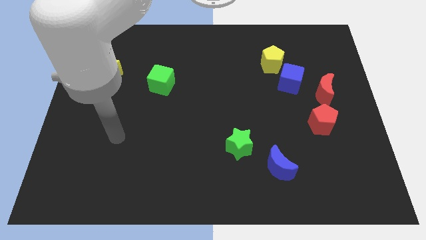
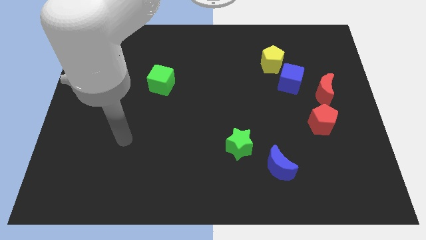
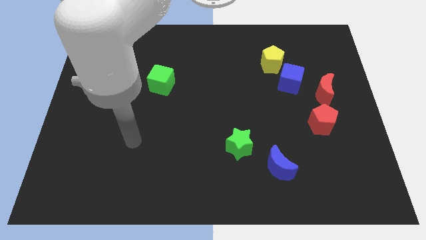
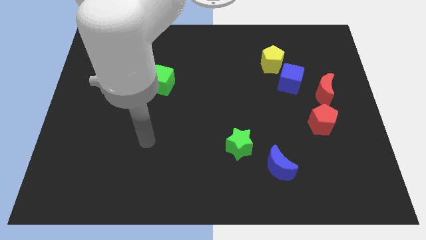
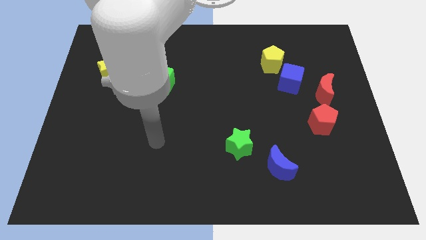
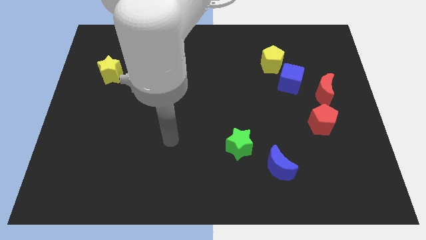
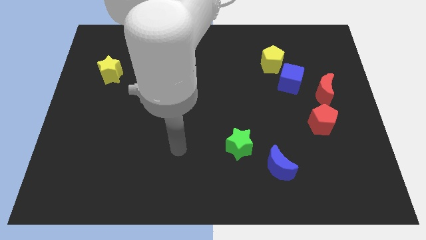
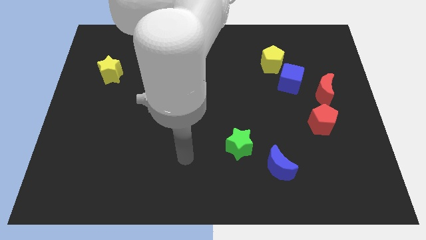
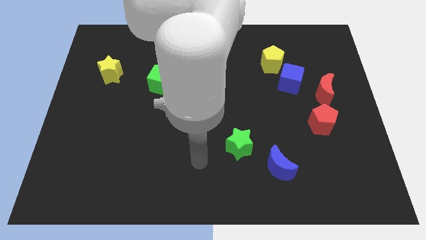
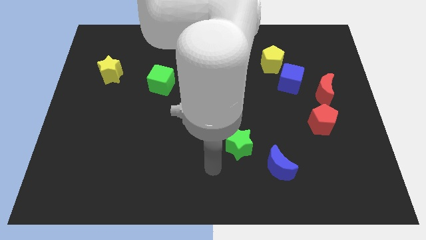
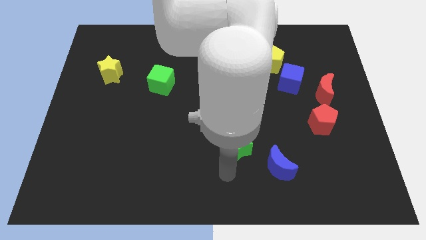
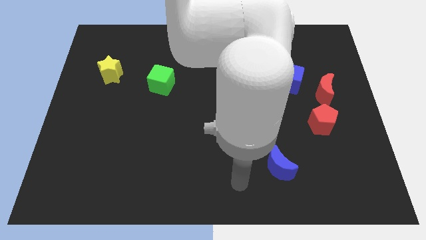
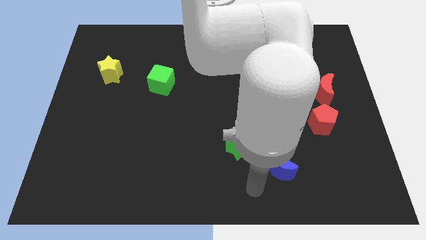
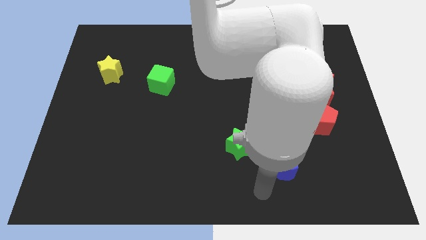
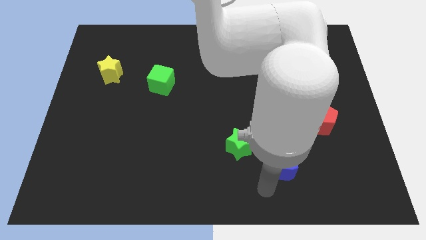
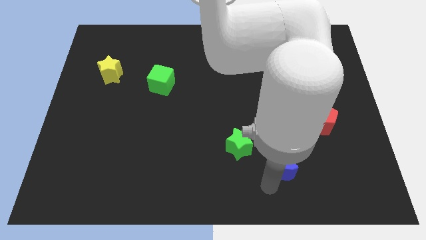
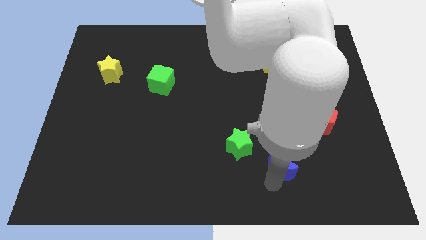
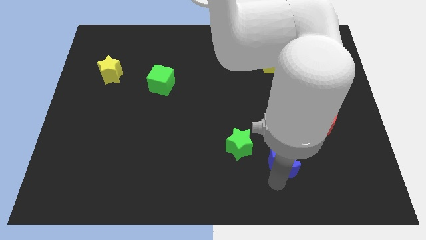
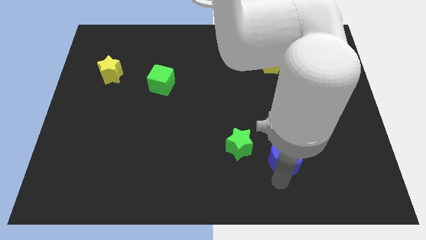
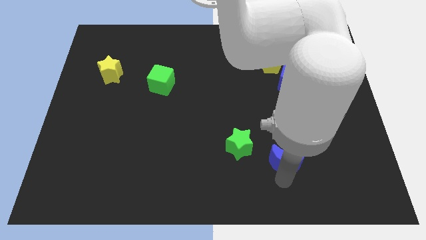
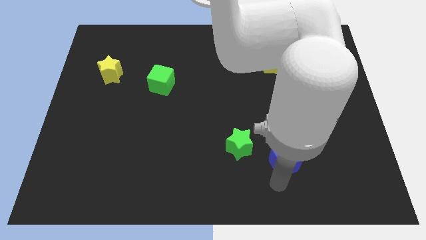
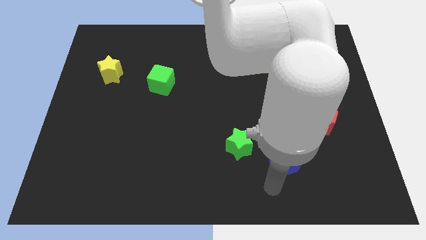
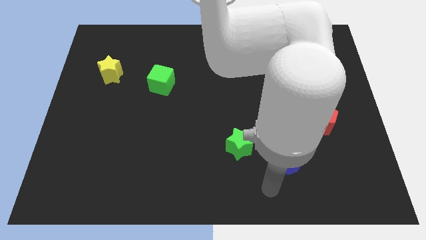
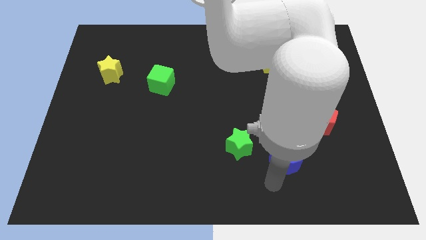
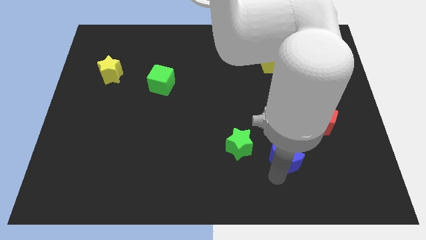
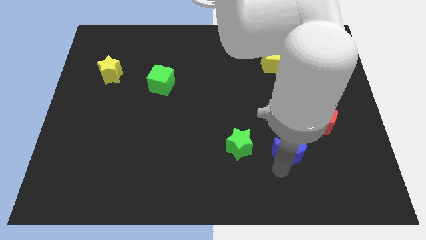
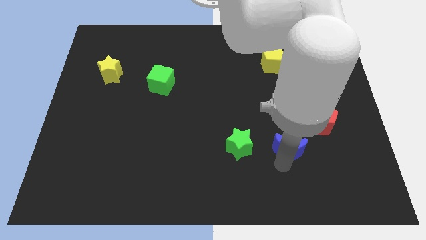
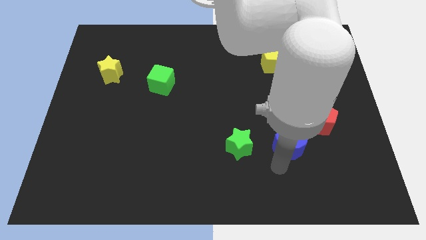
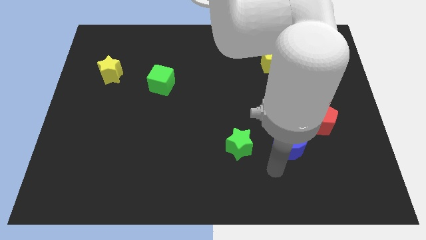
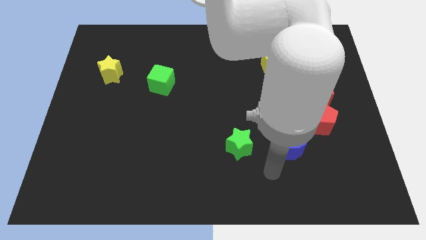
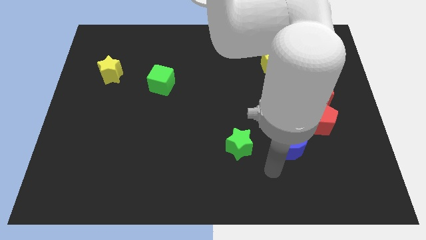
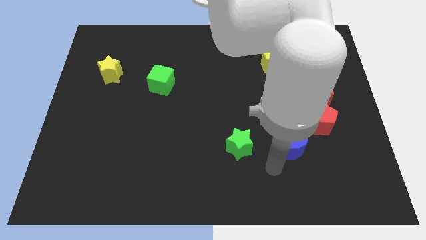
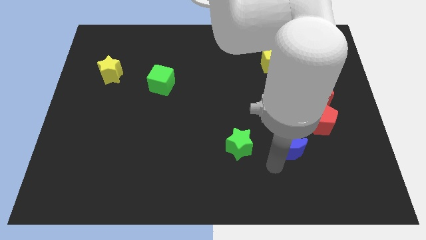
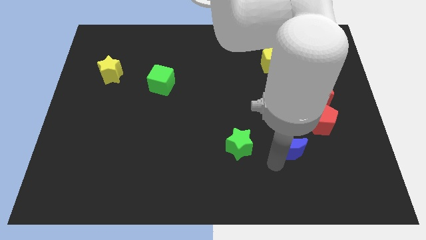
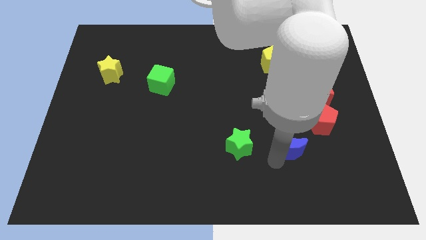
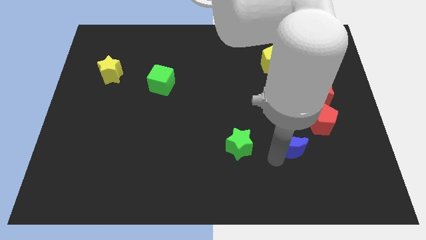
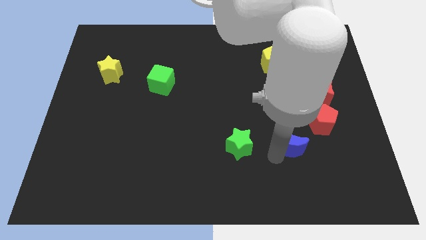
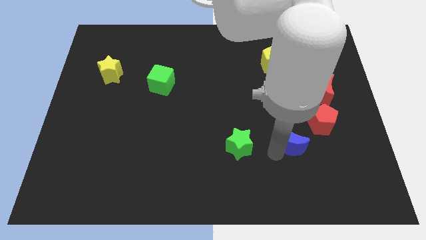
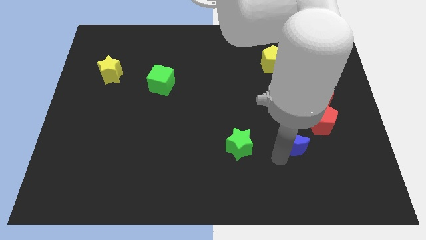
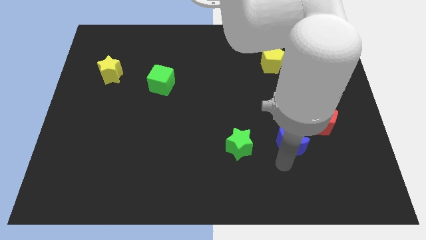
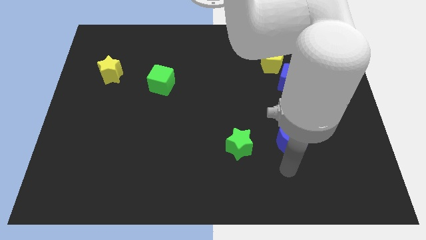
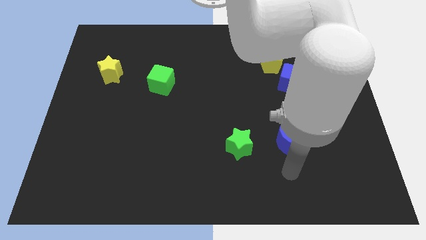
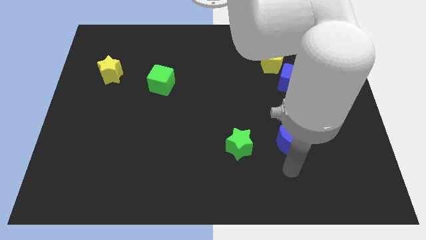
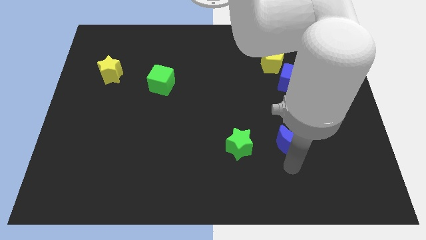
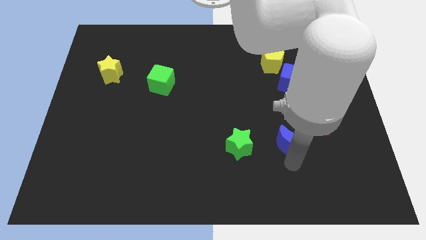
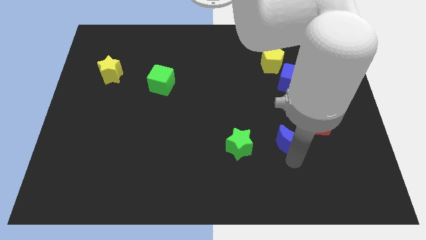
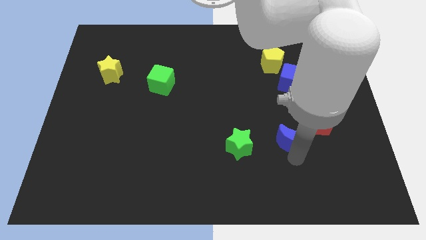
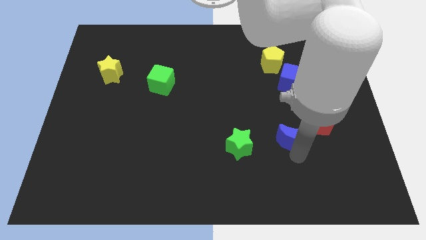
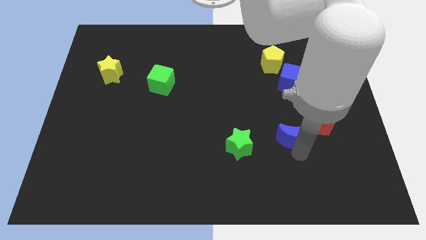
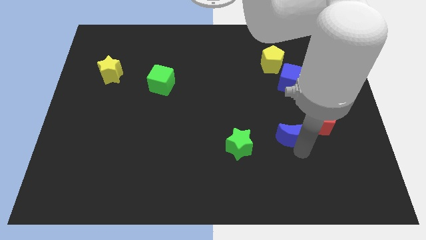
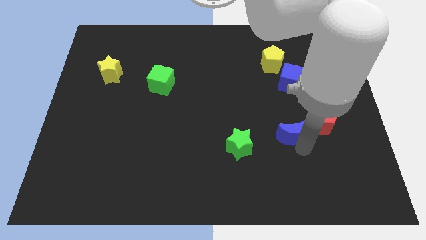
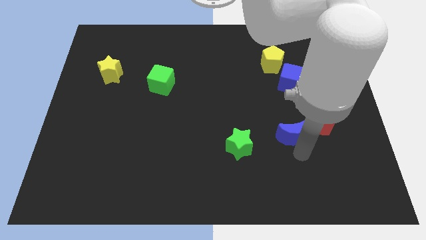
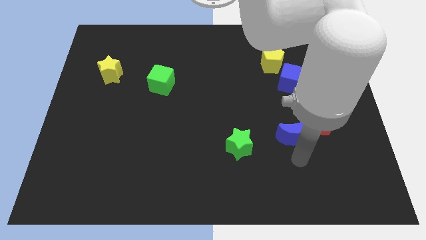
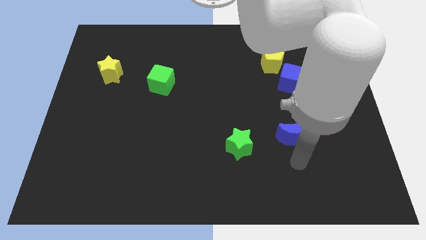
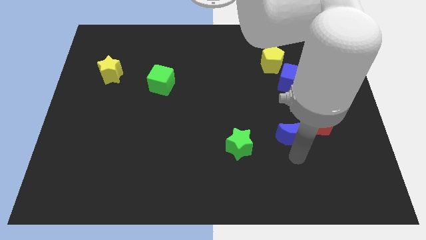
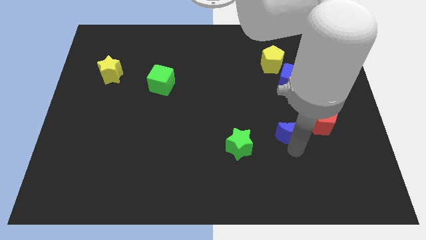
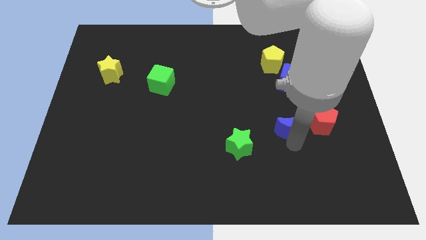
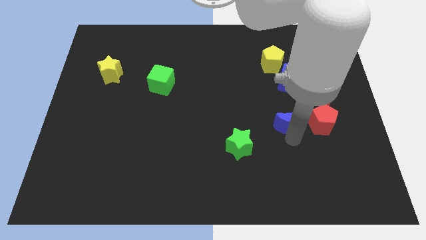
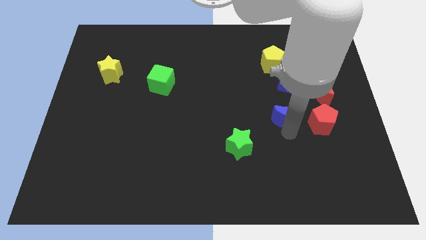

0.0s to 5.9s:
push the blue moon to the bottom left of the red moon

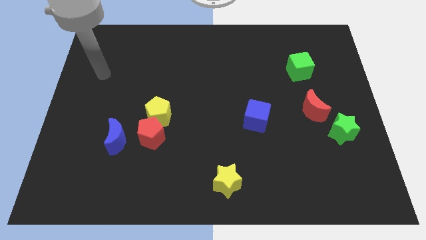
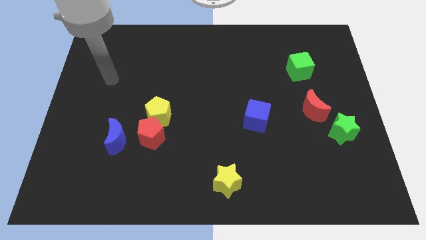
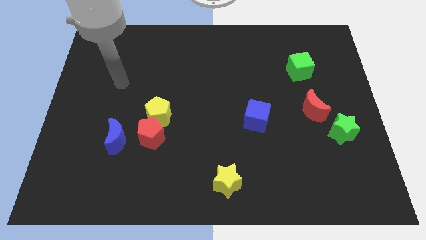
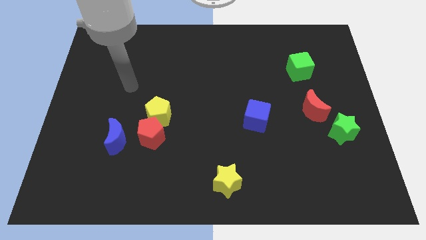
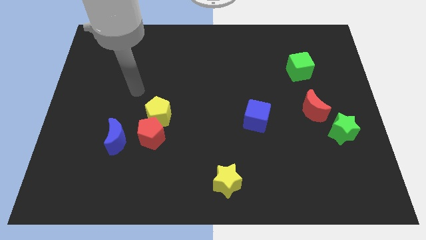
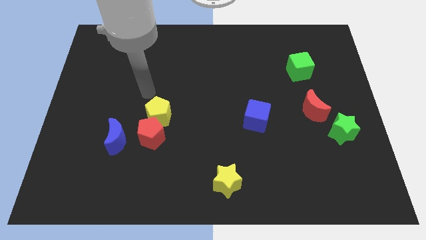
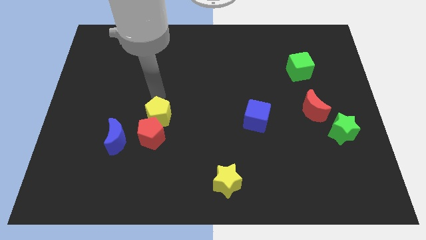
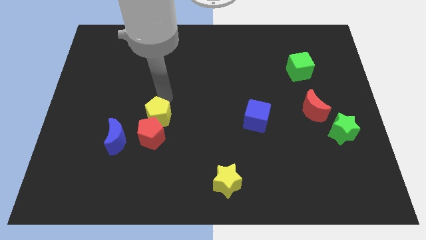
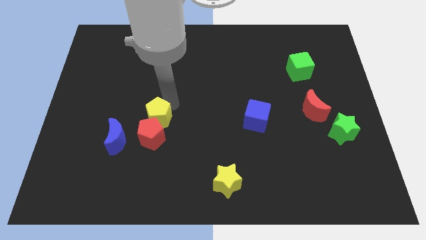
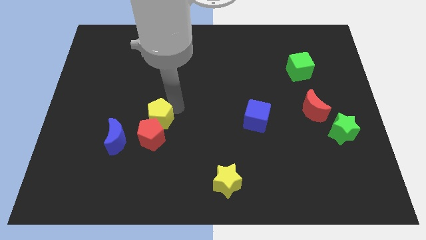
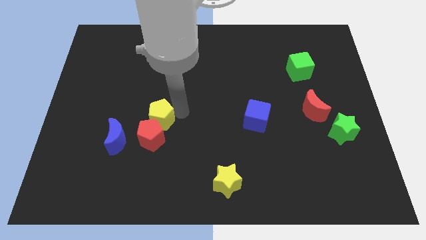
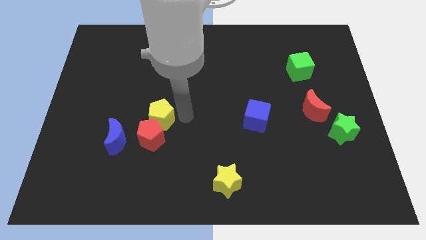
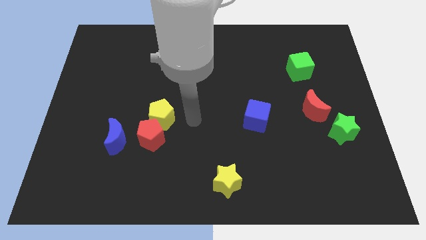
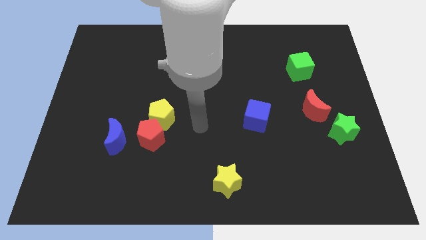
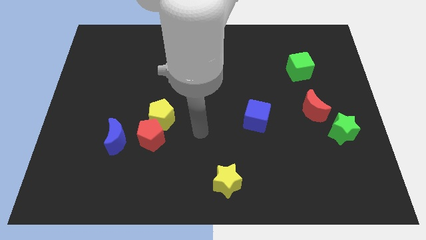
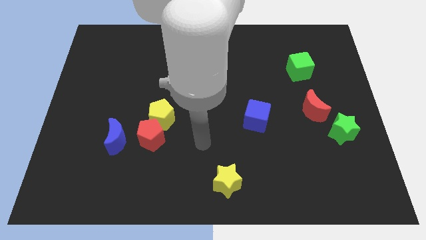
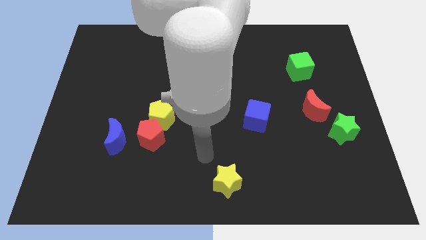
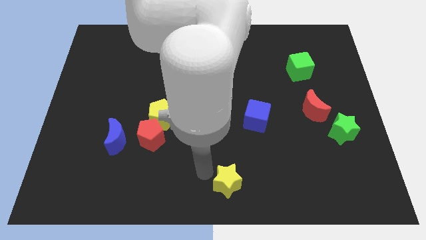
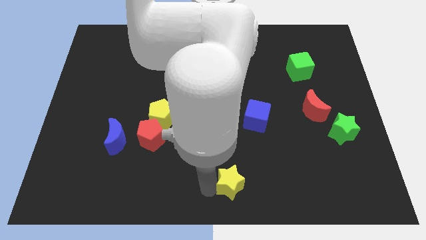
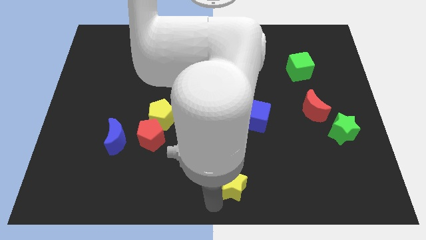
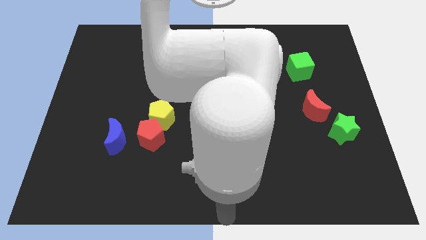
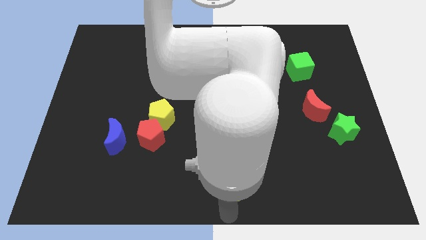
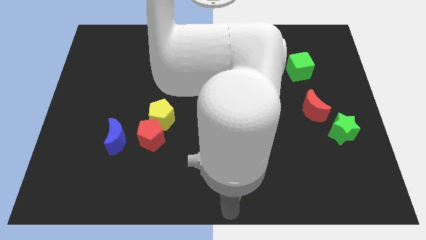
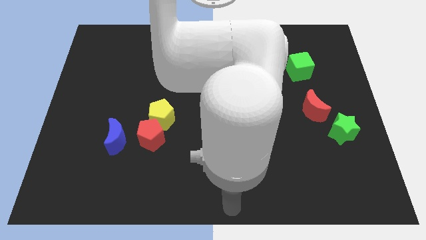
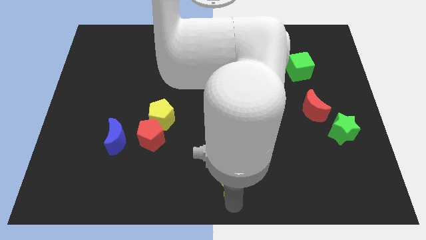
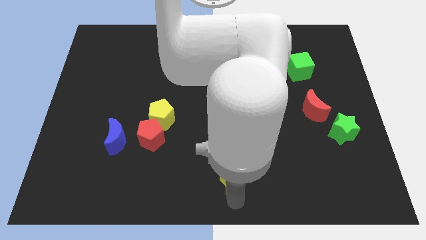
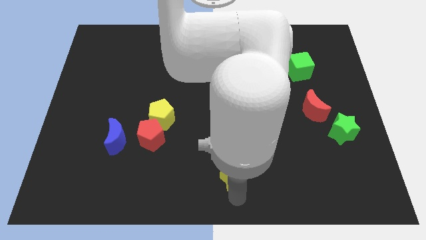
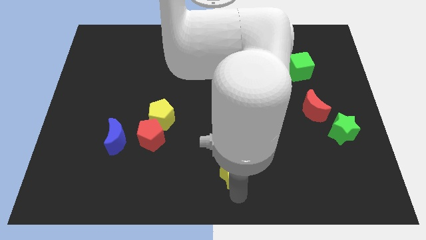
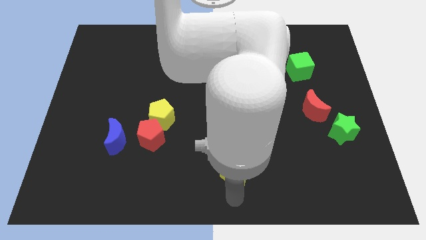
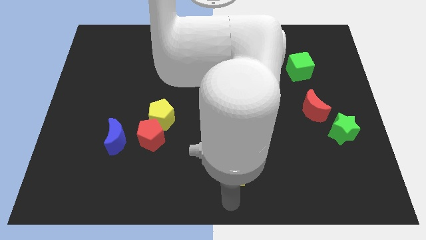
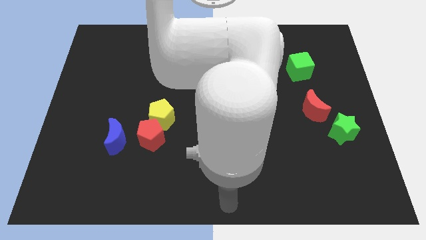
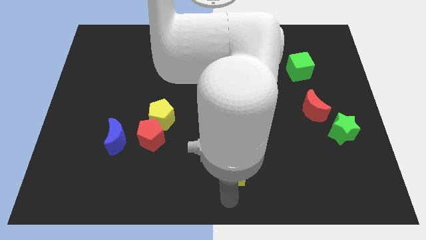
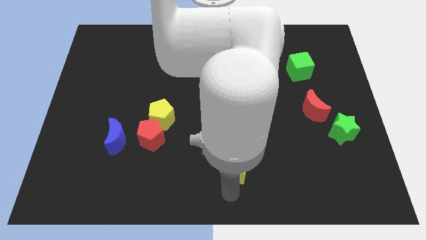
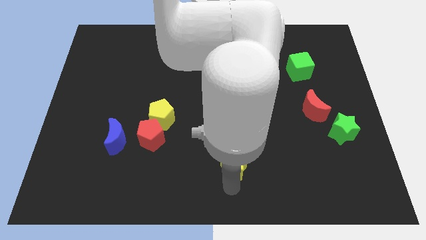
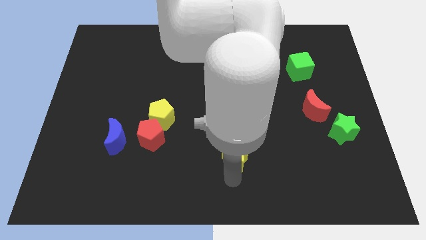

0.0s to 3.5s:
move the yellow star to the bottom left of the blue cube
